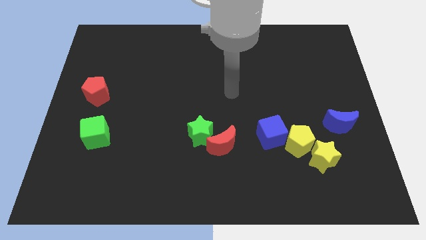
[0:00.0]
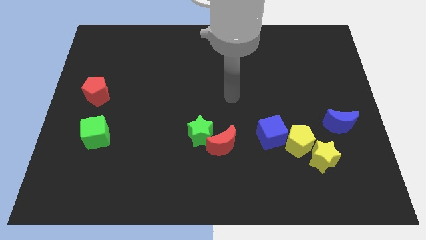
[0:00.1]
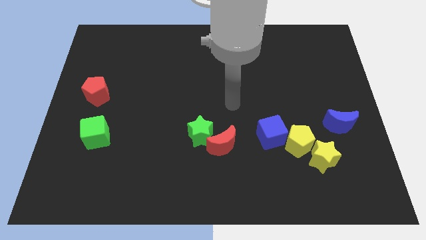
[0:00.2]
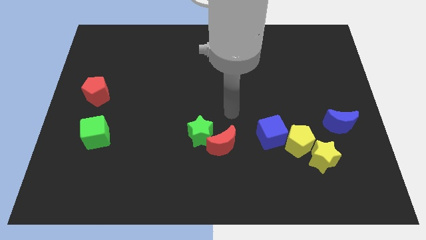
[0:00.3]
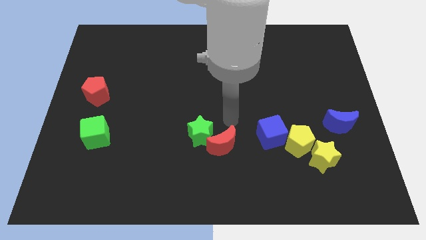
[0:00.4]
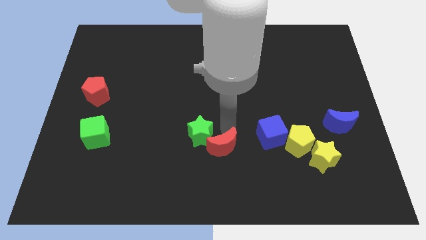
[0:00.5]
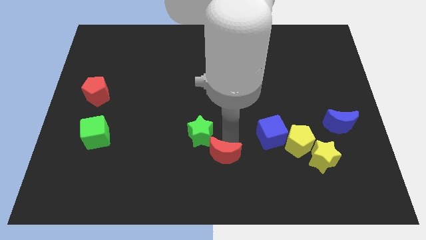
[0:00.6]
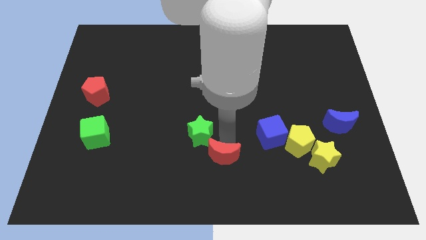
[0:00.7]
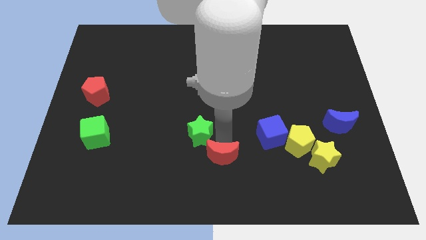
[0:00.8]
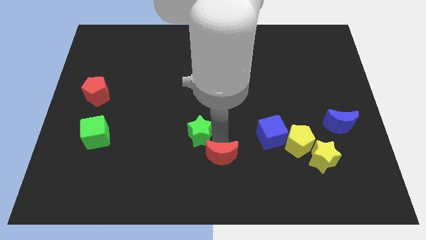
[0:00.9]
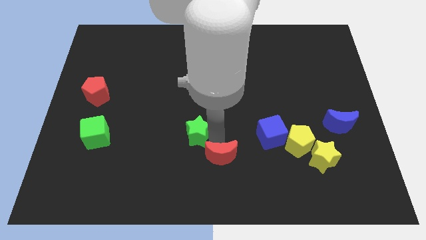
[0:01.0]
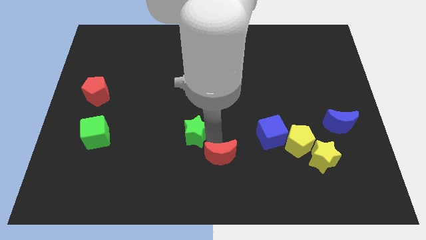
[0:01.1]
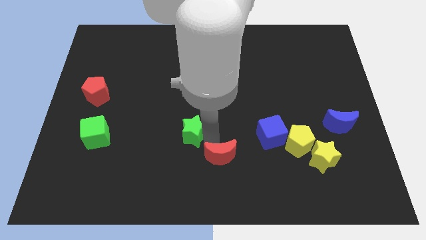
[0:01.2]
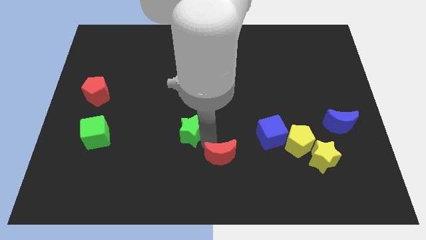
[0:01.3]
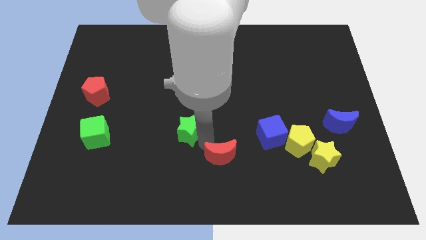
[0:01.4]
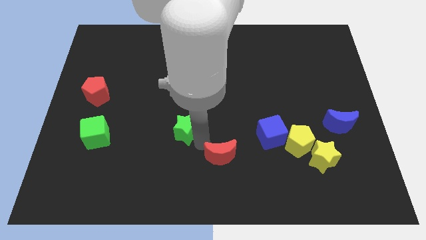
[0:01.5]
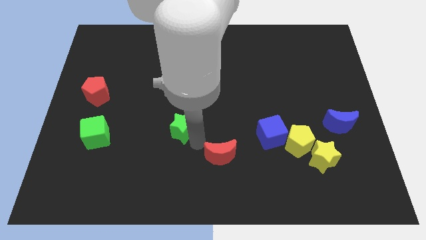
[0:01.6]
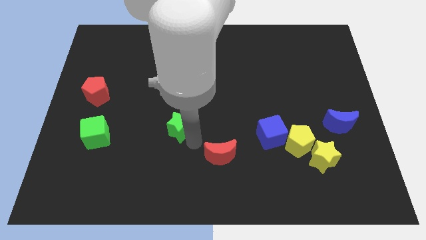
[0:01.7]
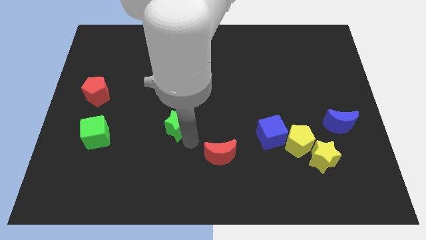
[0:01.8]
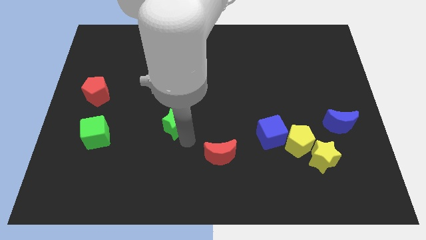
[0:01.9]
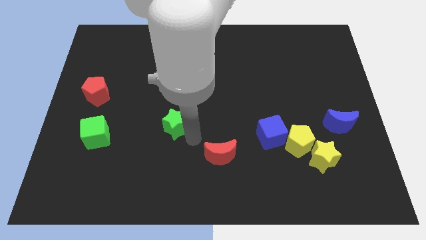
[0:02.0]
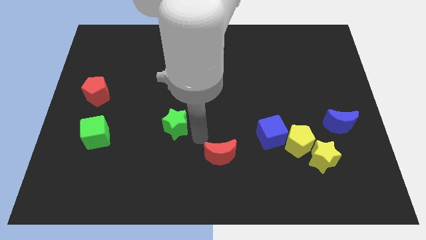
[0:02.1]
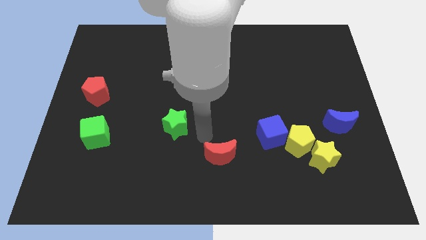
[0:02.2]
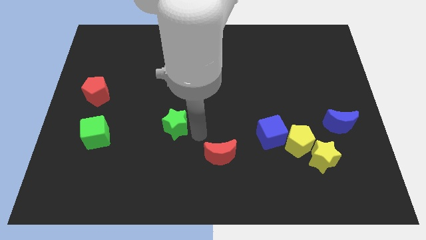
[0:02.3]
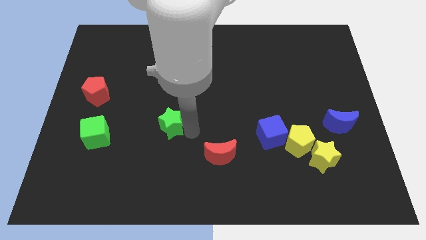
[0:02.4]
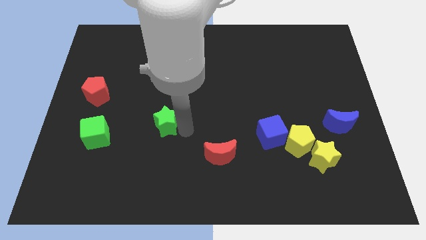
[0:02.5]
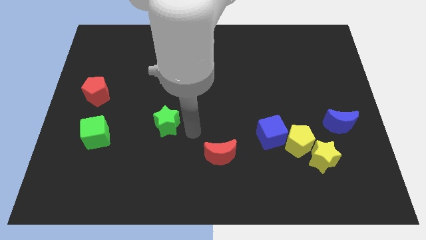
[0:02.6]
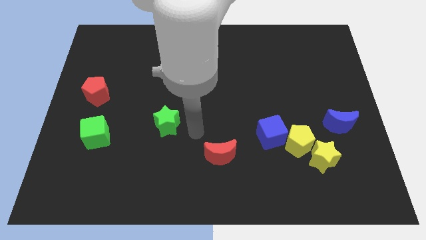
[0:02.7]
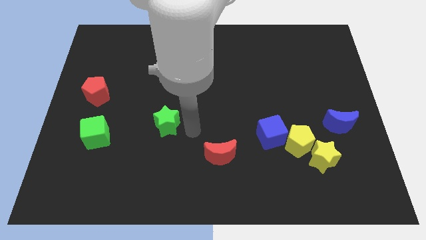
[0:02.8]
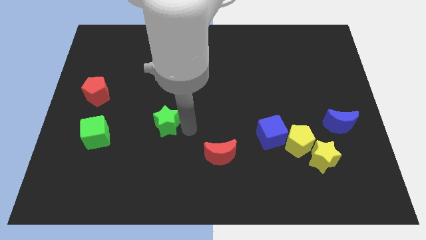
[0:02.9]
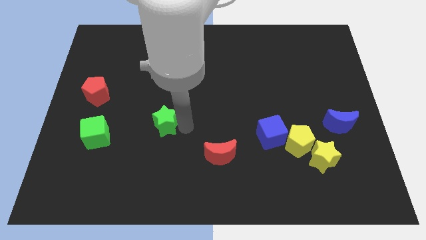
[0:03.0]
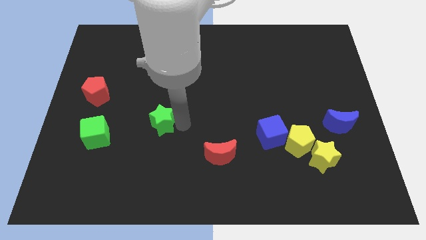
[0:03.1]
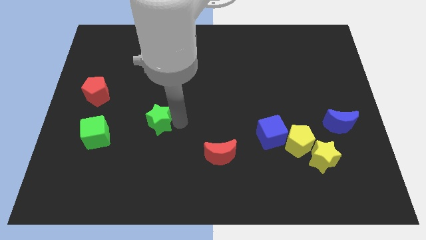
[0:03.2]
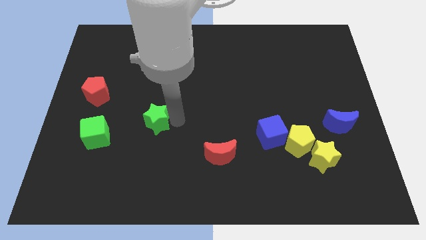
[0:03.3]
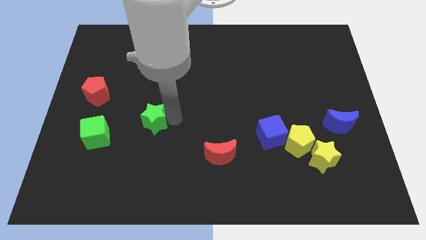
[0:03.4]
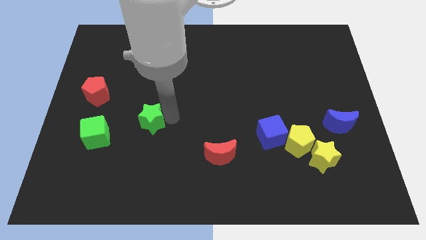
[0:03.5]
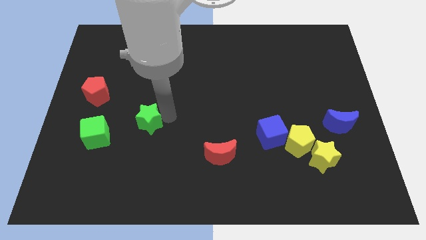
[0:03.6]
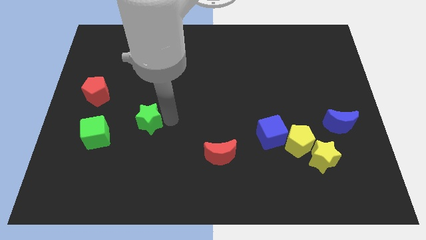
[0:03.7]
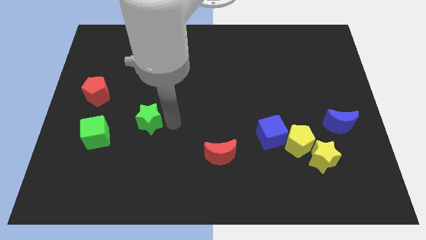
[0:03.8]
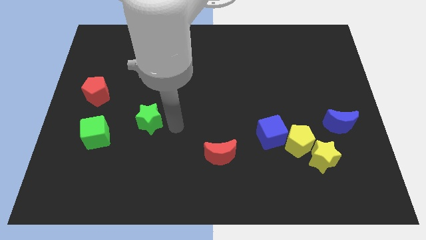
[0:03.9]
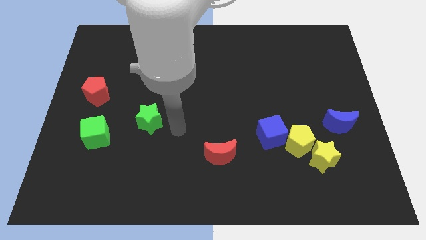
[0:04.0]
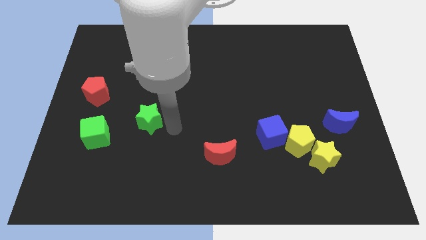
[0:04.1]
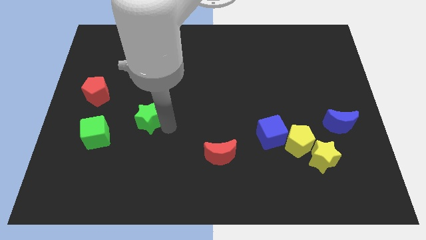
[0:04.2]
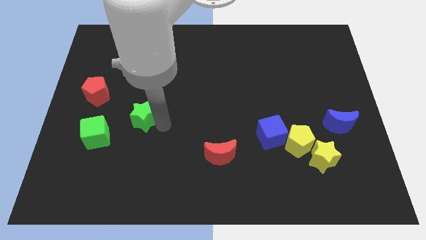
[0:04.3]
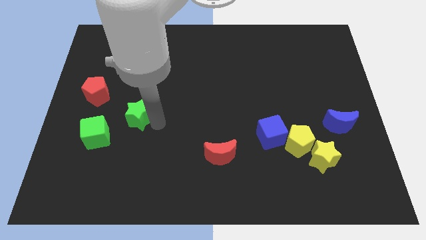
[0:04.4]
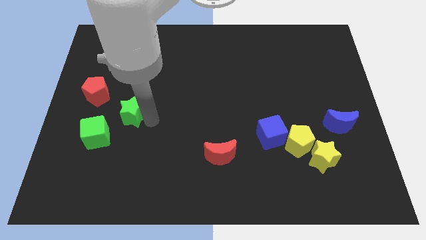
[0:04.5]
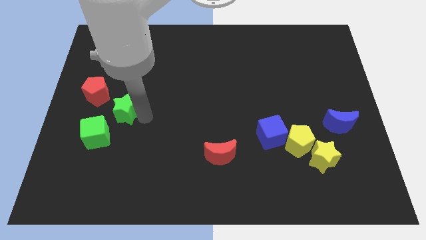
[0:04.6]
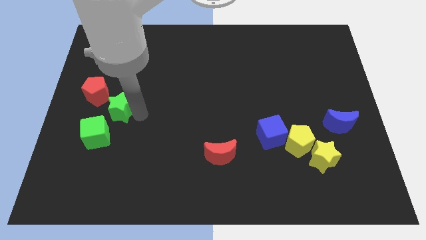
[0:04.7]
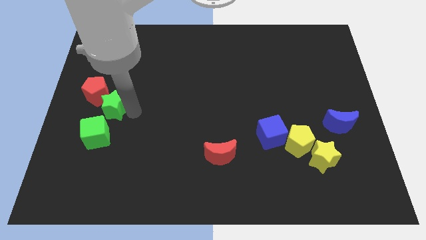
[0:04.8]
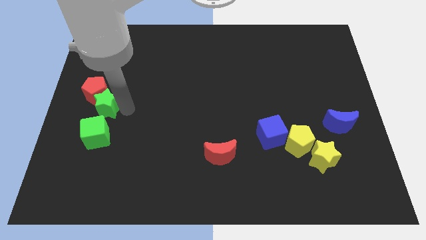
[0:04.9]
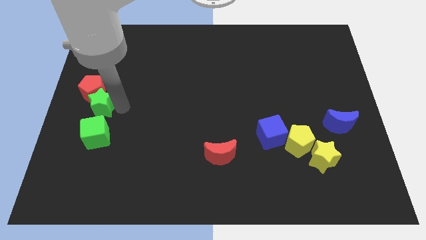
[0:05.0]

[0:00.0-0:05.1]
slide the green star to the left side of the board

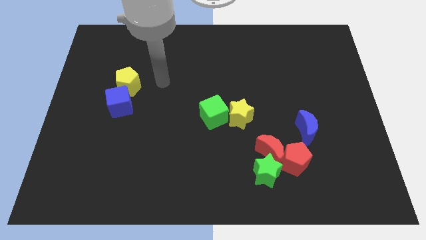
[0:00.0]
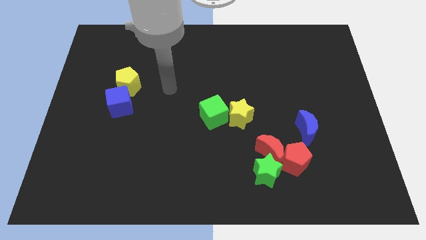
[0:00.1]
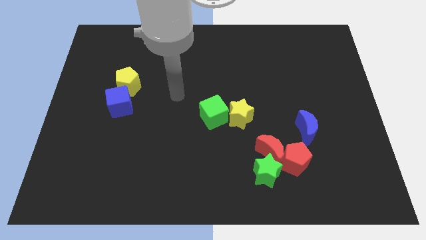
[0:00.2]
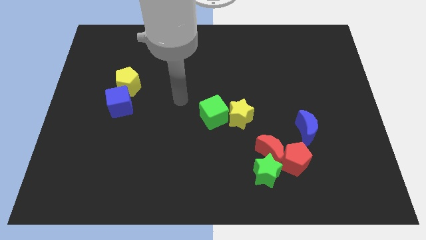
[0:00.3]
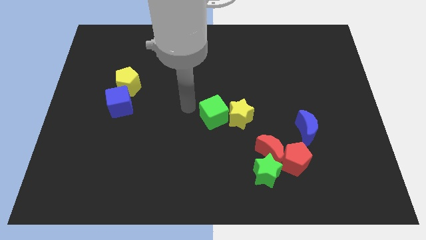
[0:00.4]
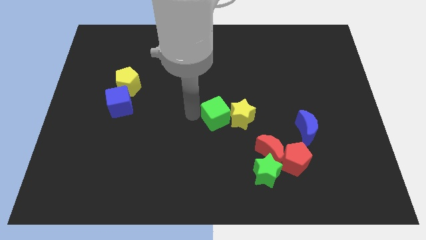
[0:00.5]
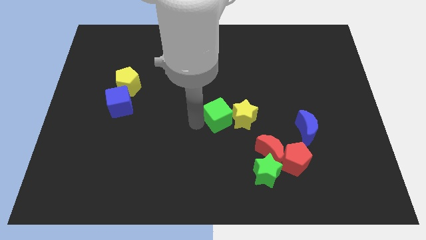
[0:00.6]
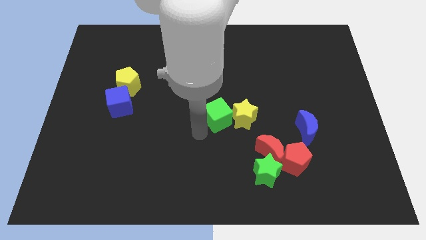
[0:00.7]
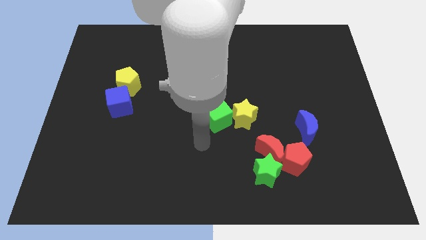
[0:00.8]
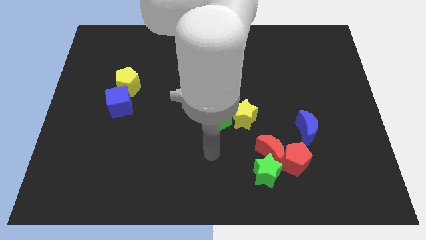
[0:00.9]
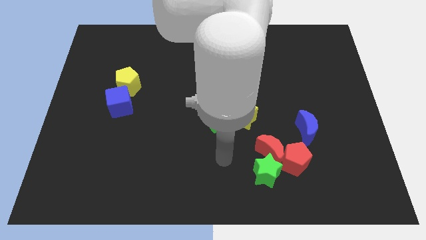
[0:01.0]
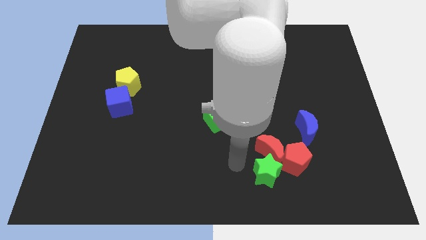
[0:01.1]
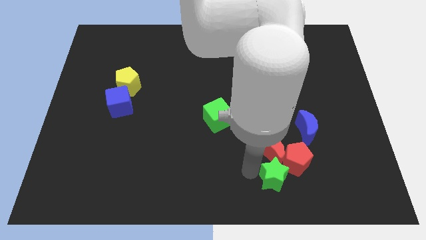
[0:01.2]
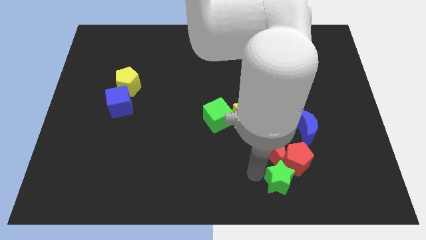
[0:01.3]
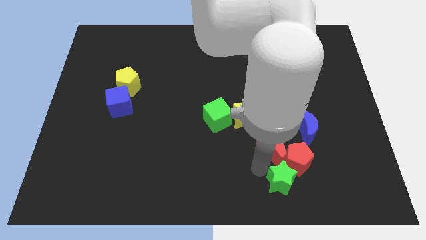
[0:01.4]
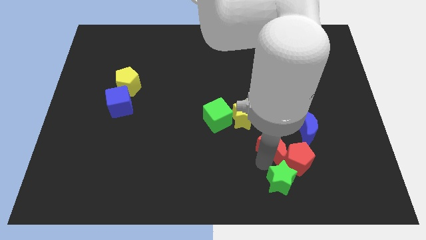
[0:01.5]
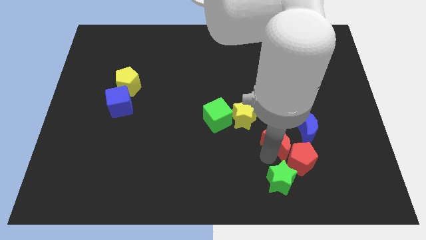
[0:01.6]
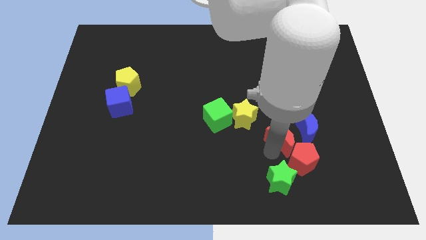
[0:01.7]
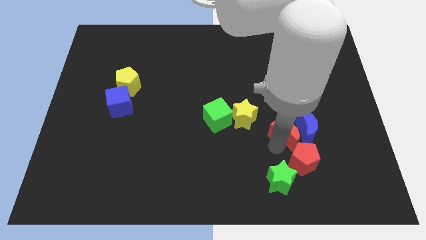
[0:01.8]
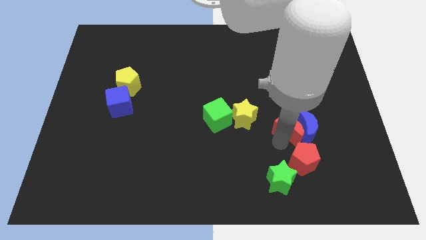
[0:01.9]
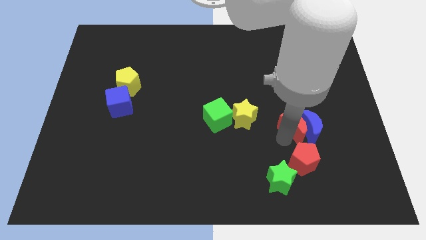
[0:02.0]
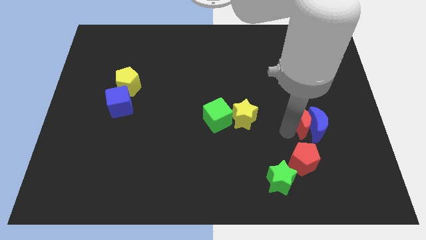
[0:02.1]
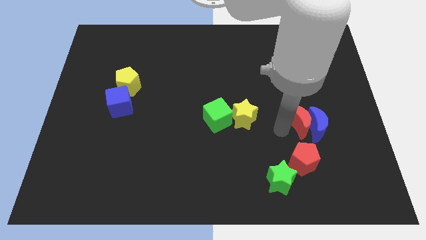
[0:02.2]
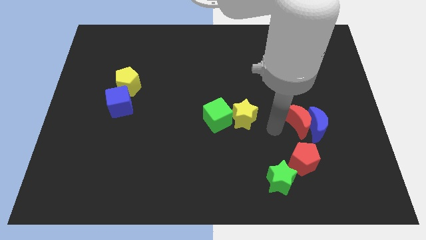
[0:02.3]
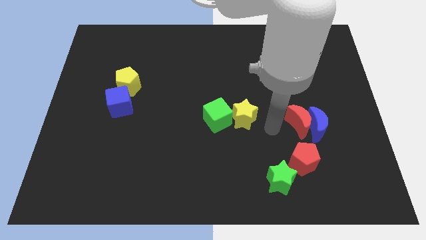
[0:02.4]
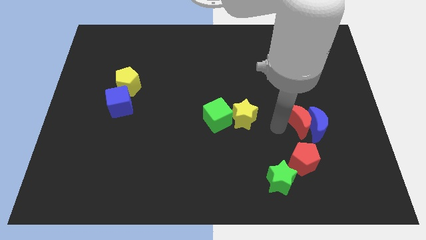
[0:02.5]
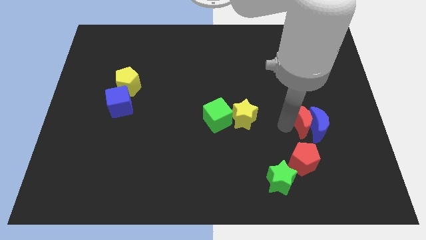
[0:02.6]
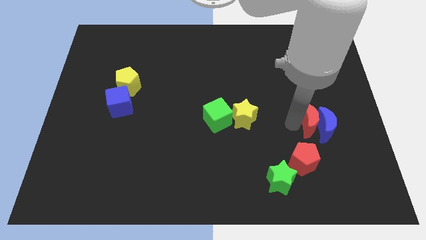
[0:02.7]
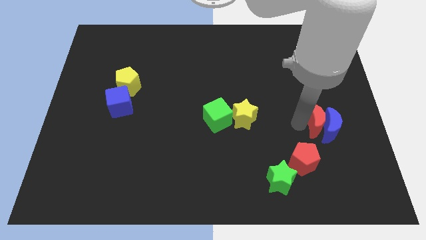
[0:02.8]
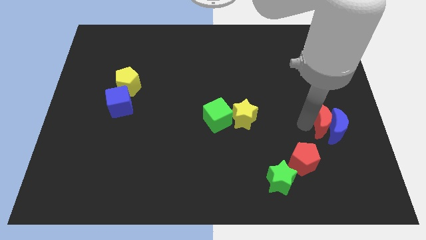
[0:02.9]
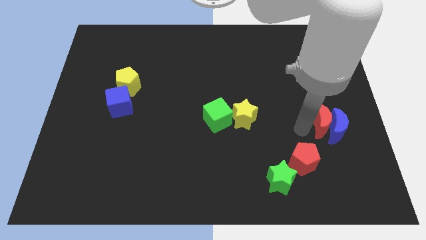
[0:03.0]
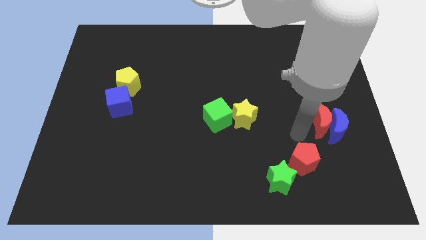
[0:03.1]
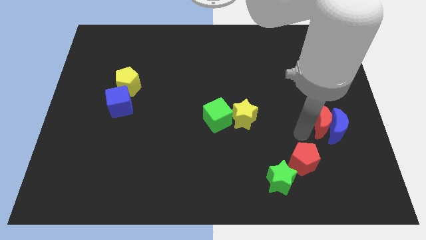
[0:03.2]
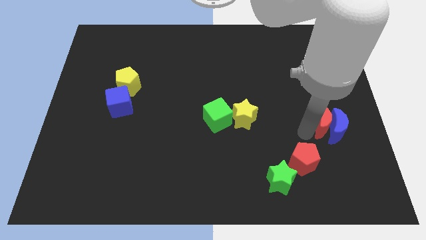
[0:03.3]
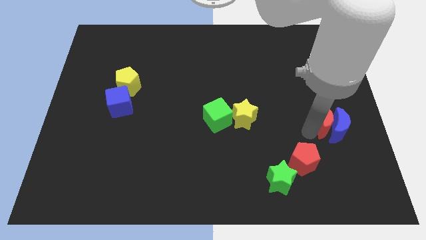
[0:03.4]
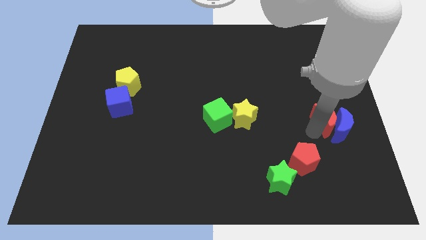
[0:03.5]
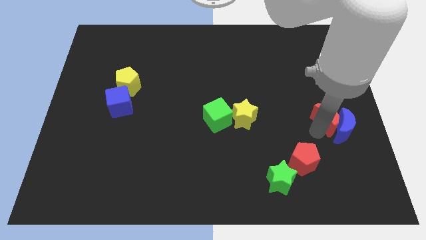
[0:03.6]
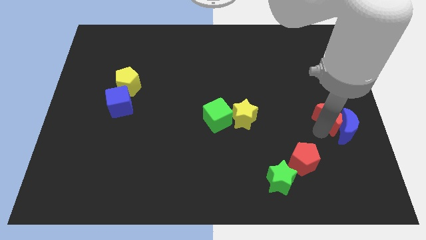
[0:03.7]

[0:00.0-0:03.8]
push the red moon to the right side
